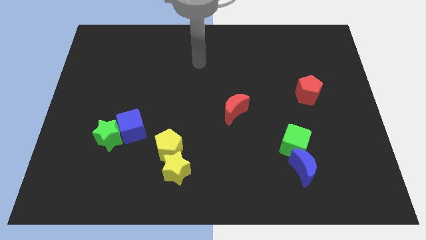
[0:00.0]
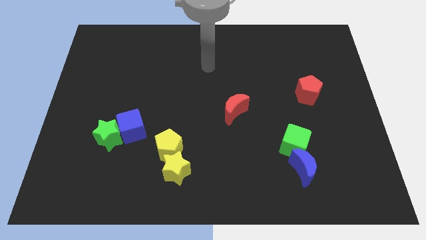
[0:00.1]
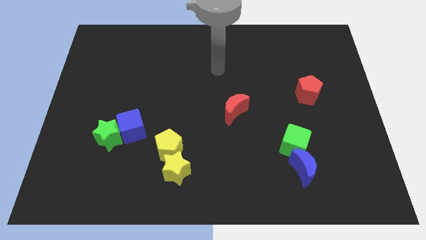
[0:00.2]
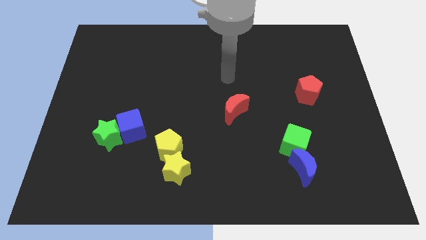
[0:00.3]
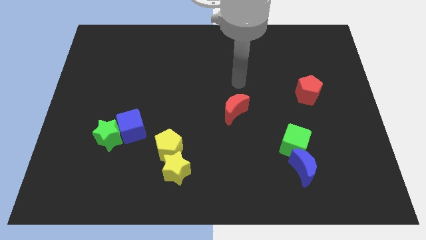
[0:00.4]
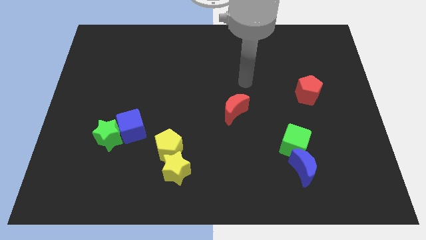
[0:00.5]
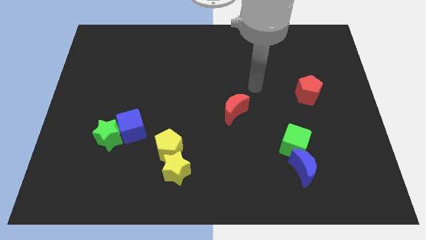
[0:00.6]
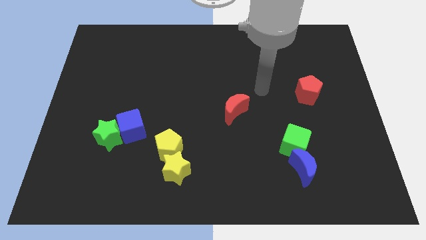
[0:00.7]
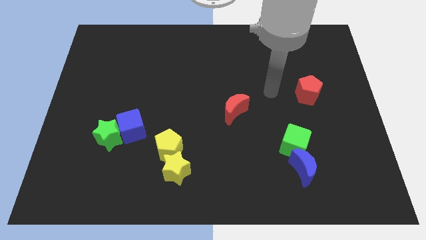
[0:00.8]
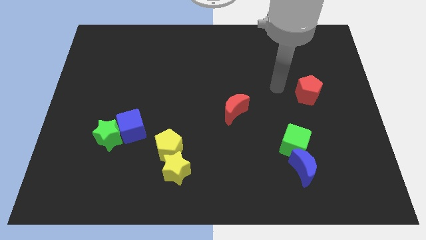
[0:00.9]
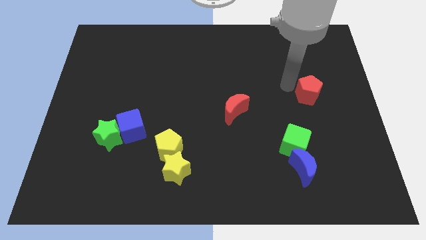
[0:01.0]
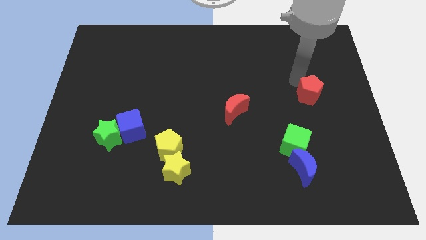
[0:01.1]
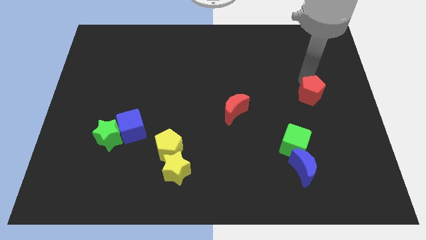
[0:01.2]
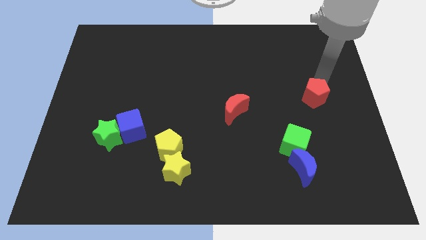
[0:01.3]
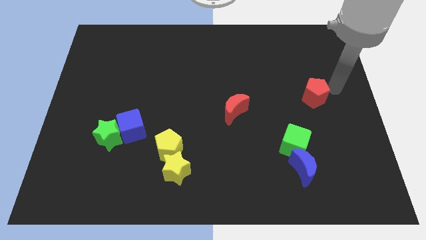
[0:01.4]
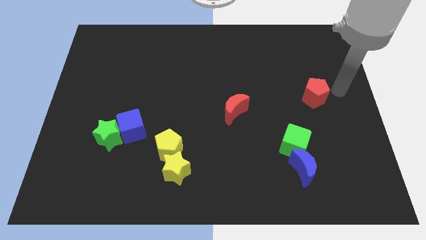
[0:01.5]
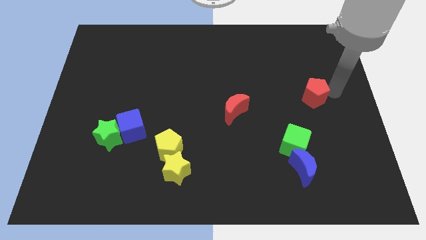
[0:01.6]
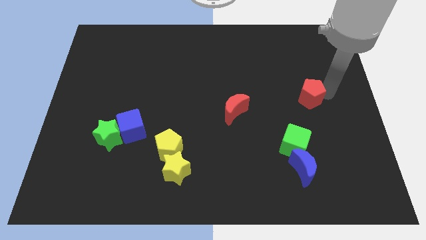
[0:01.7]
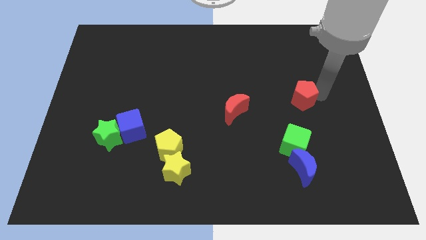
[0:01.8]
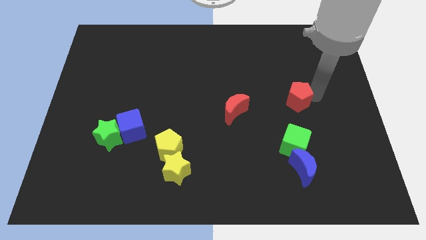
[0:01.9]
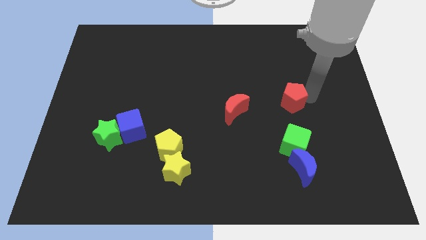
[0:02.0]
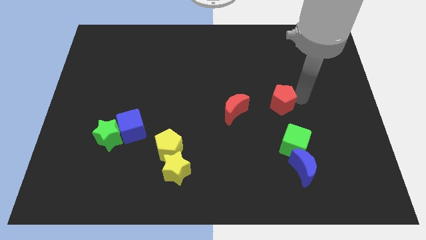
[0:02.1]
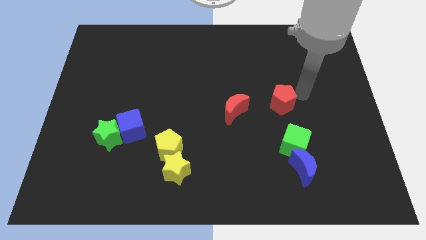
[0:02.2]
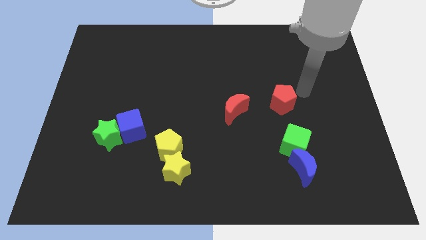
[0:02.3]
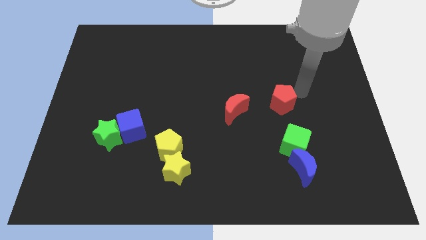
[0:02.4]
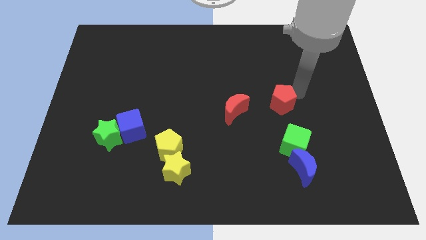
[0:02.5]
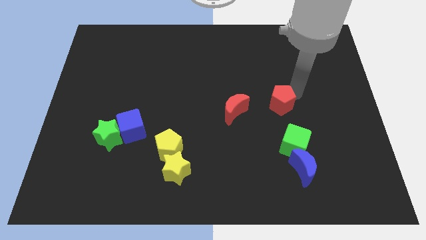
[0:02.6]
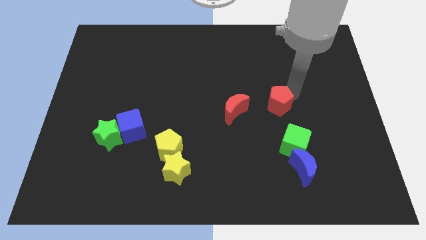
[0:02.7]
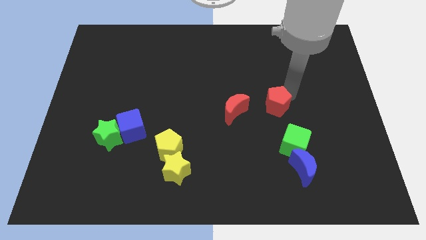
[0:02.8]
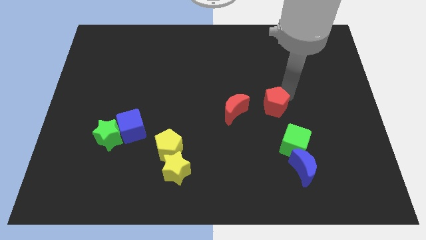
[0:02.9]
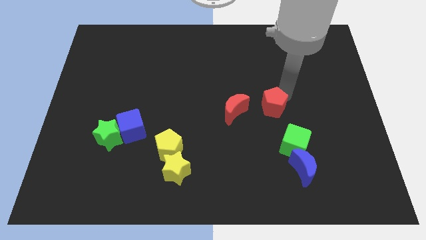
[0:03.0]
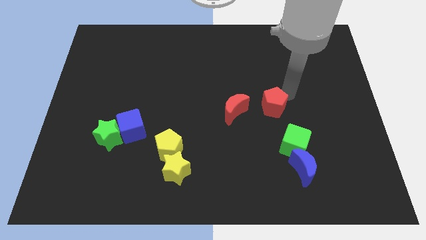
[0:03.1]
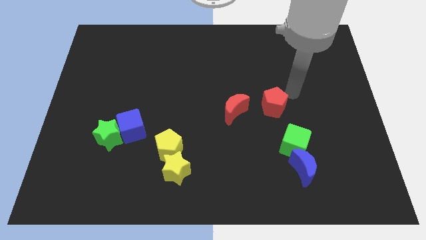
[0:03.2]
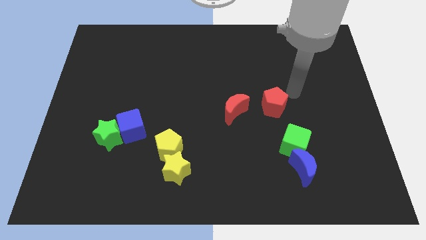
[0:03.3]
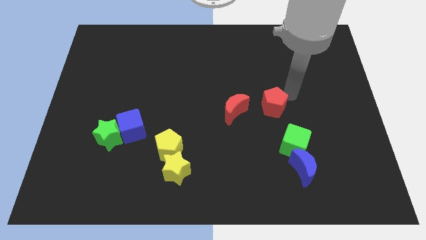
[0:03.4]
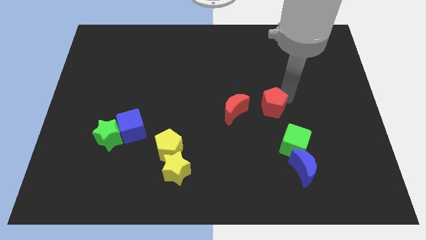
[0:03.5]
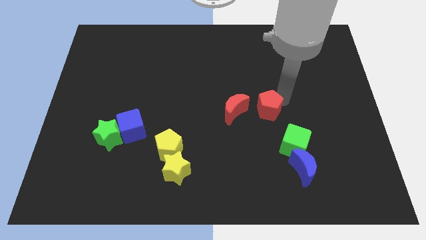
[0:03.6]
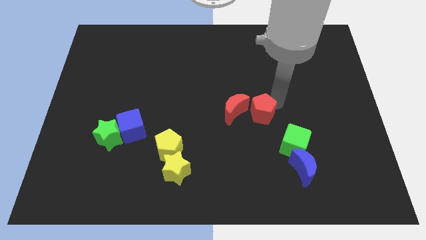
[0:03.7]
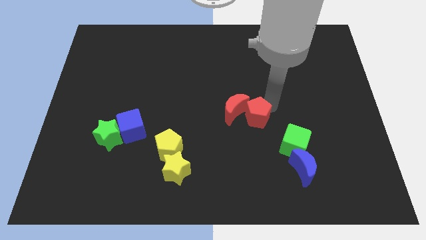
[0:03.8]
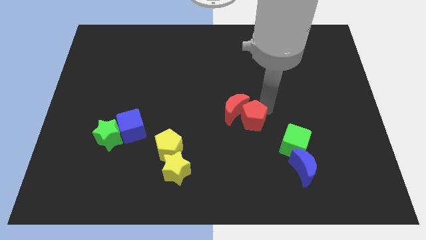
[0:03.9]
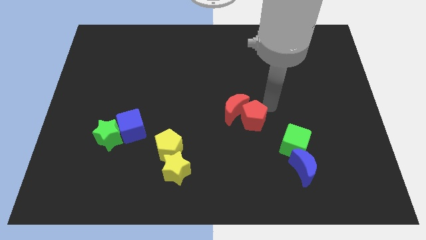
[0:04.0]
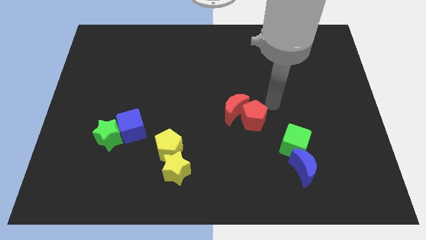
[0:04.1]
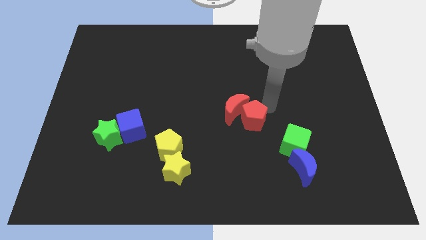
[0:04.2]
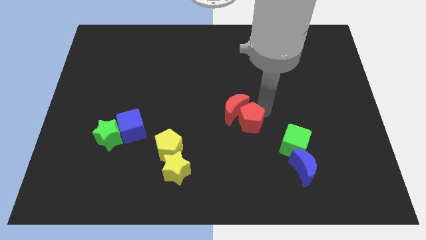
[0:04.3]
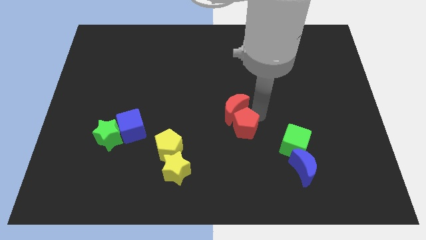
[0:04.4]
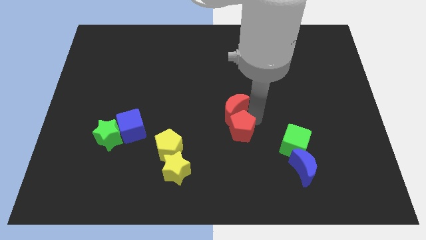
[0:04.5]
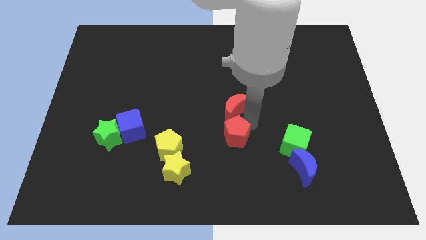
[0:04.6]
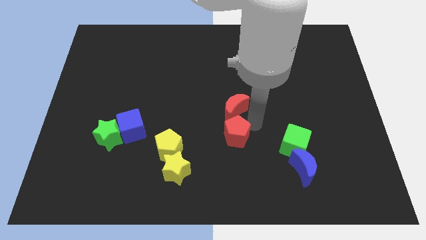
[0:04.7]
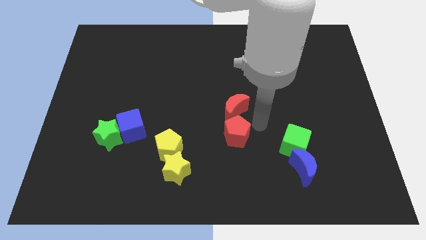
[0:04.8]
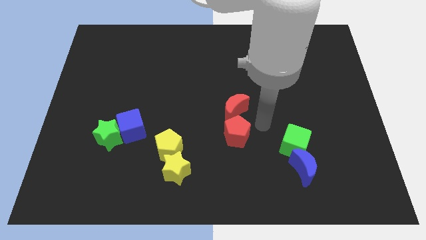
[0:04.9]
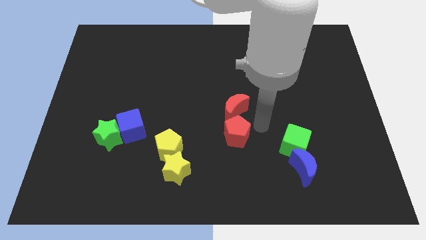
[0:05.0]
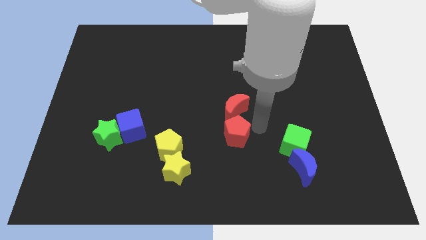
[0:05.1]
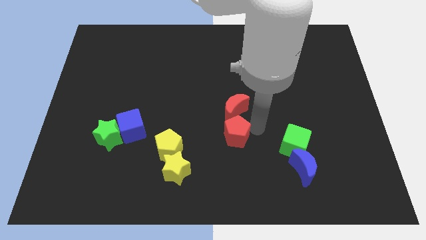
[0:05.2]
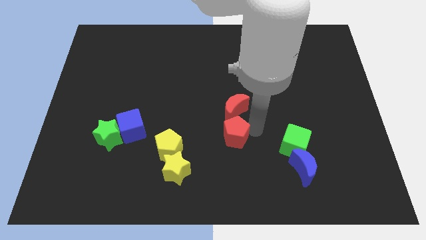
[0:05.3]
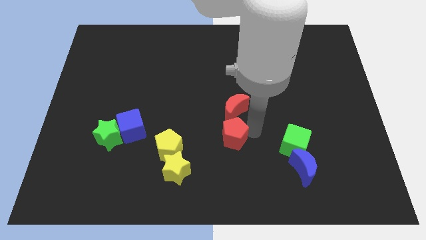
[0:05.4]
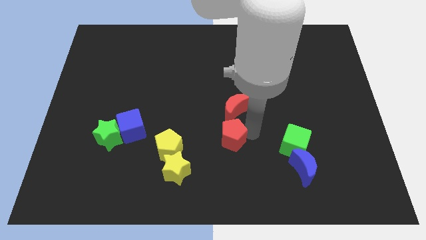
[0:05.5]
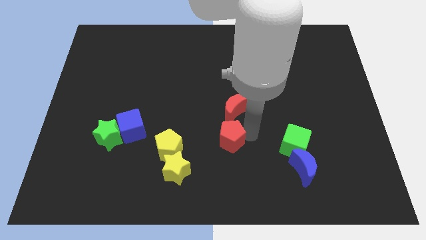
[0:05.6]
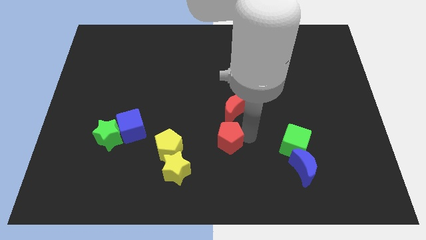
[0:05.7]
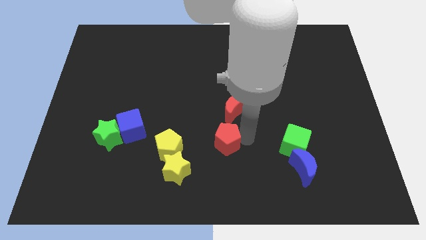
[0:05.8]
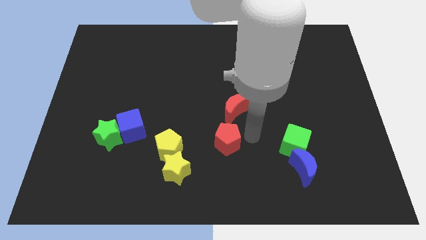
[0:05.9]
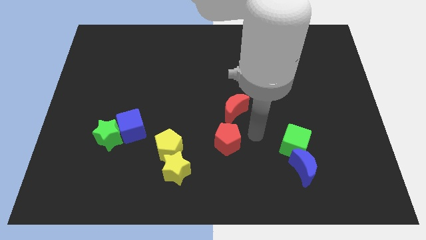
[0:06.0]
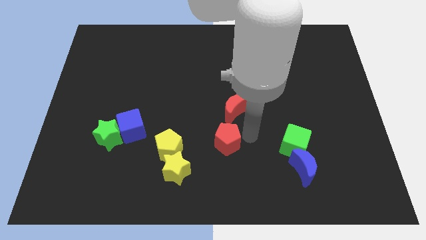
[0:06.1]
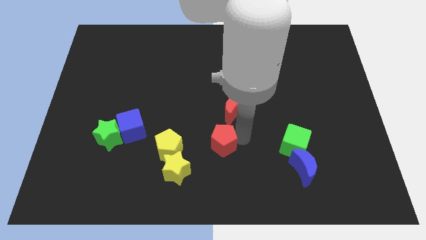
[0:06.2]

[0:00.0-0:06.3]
put the red pentagon to the top right of the yellow star

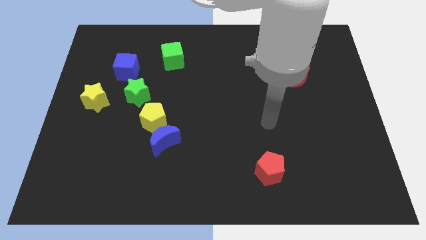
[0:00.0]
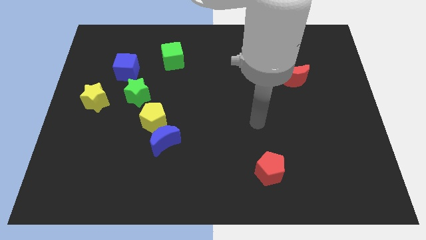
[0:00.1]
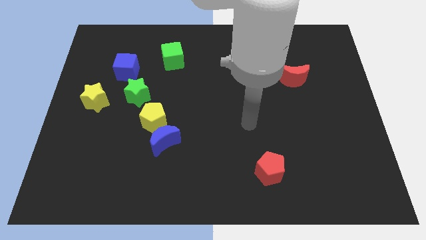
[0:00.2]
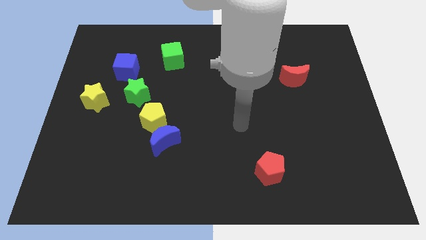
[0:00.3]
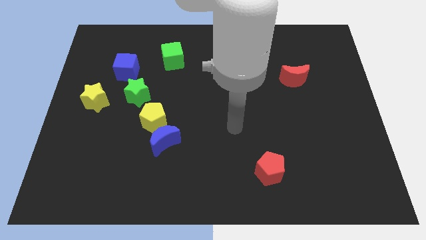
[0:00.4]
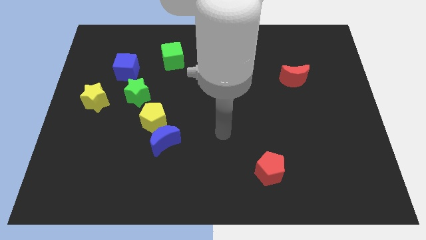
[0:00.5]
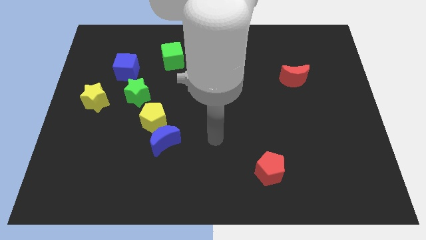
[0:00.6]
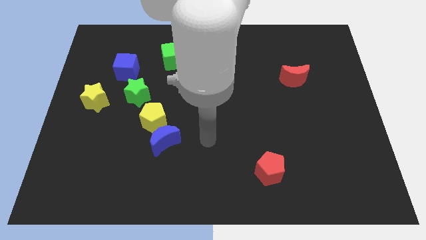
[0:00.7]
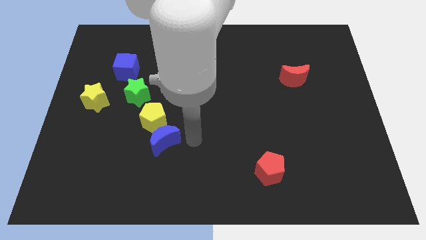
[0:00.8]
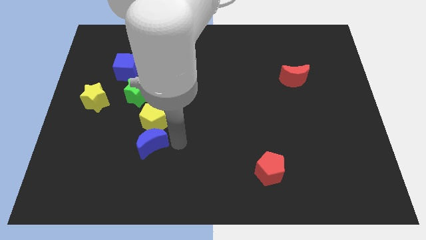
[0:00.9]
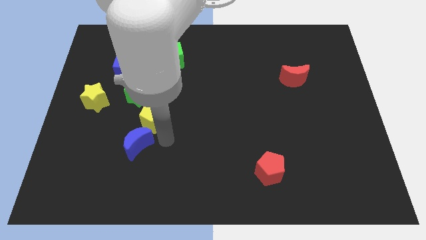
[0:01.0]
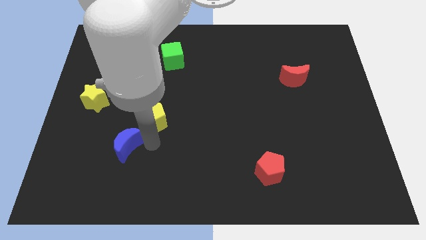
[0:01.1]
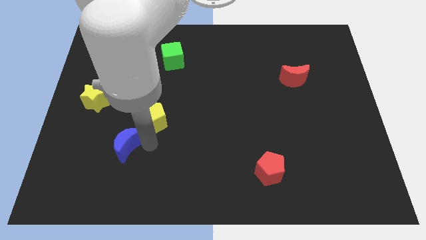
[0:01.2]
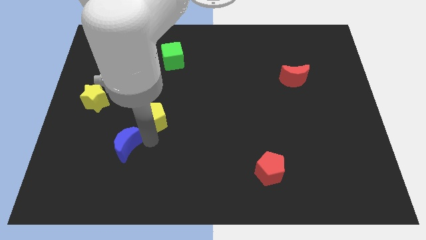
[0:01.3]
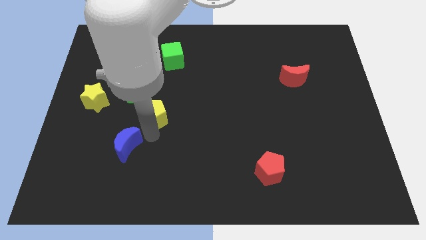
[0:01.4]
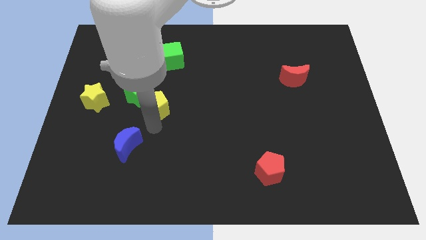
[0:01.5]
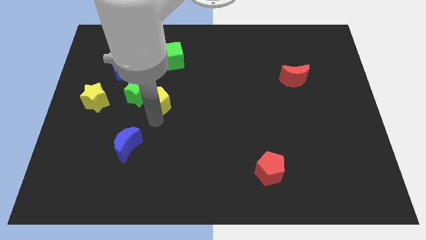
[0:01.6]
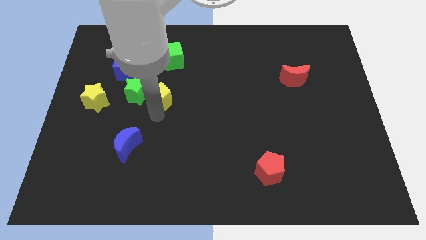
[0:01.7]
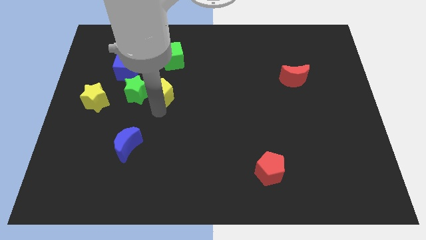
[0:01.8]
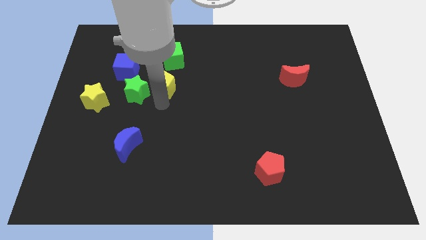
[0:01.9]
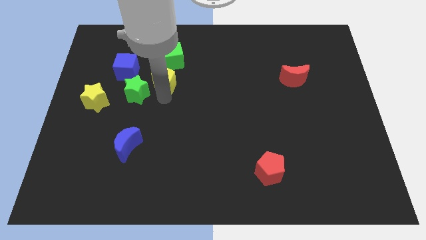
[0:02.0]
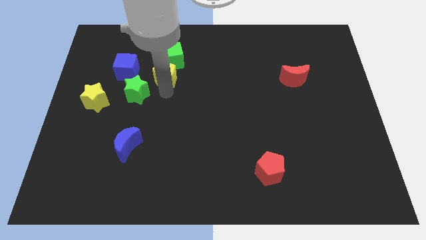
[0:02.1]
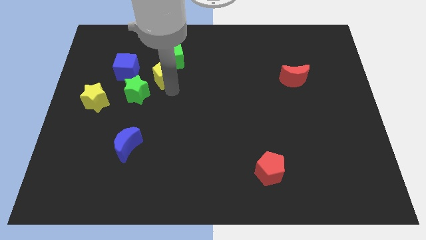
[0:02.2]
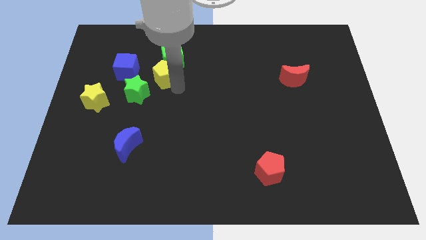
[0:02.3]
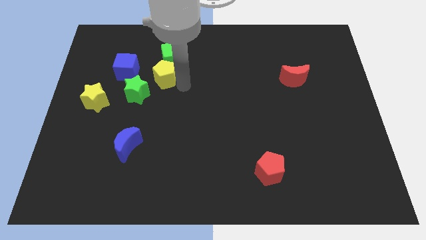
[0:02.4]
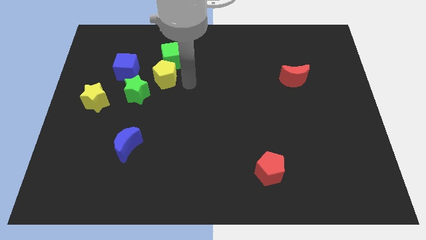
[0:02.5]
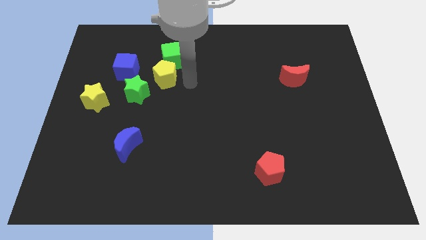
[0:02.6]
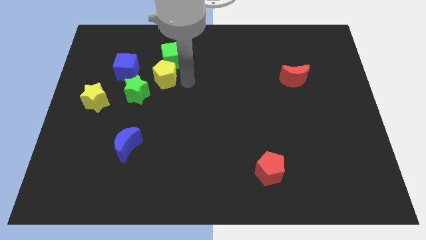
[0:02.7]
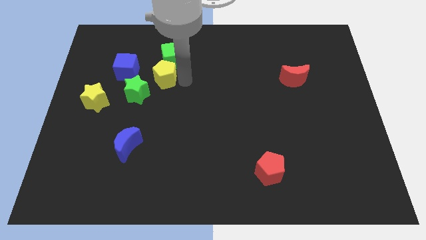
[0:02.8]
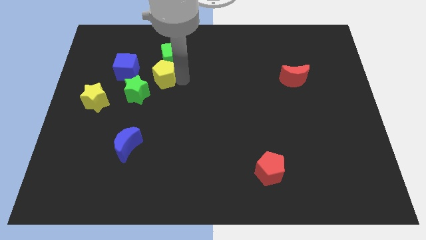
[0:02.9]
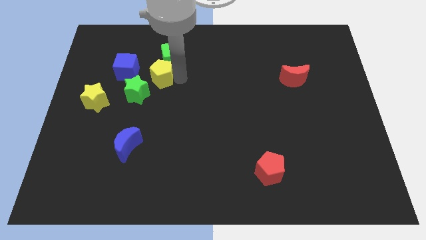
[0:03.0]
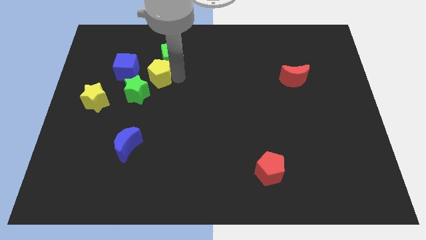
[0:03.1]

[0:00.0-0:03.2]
push the yellow pentagon to the top side of the green star
